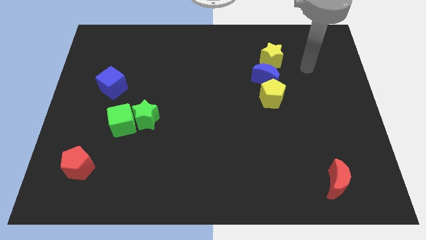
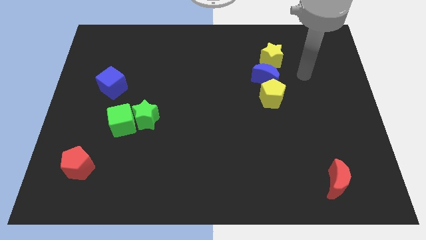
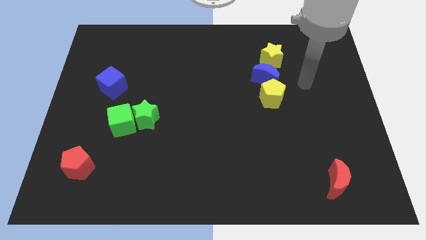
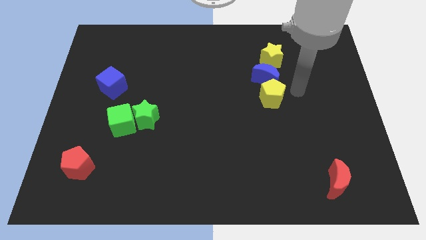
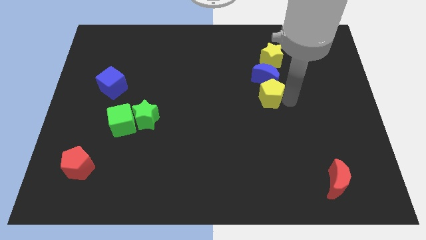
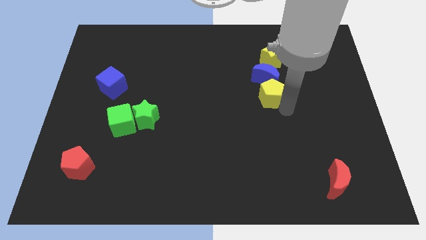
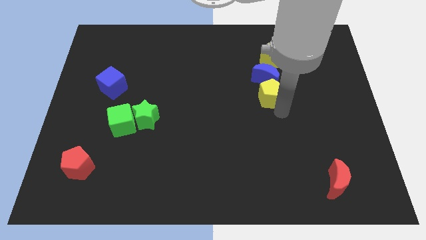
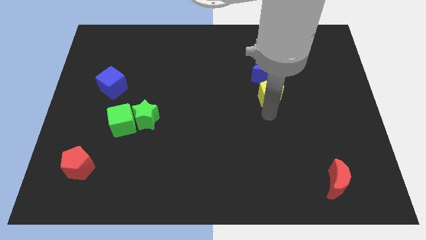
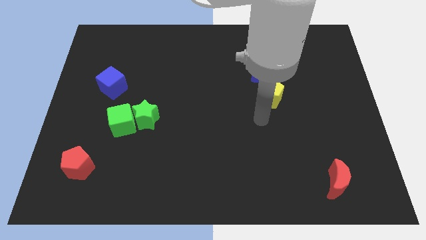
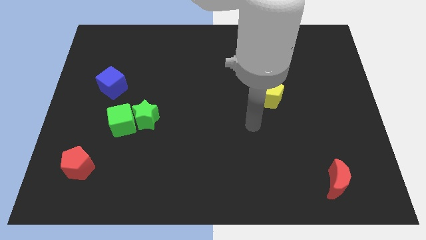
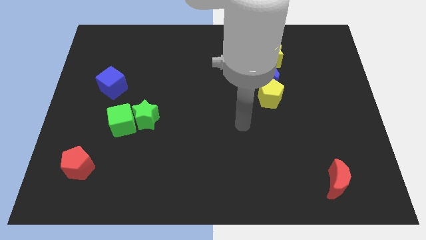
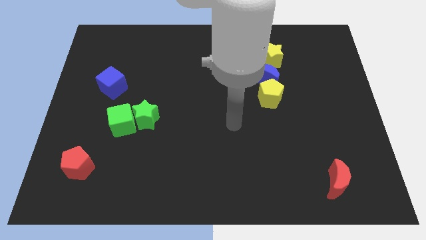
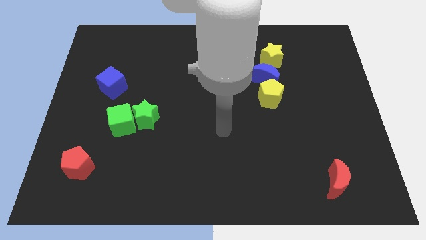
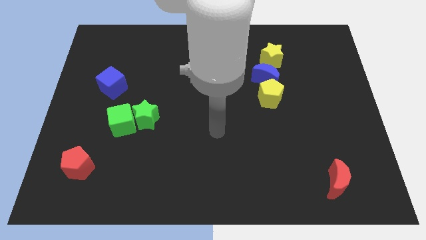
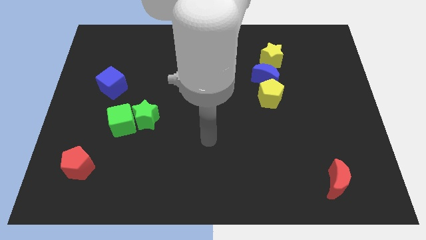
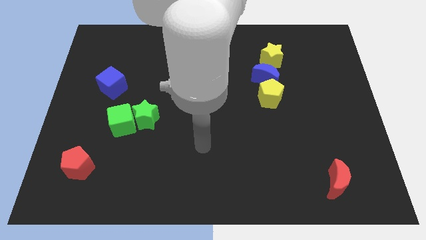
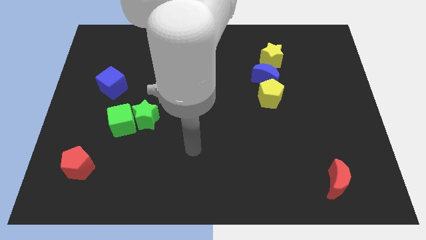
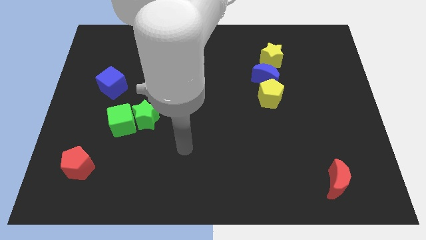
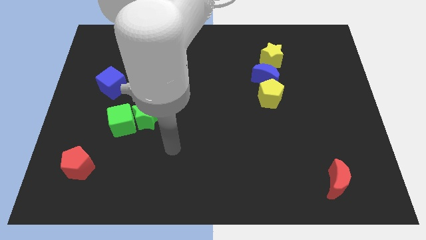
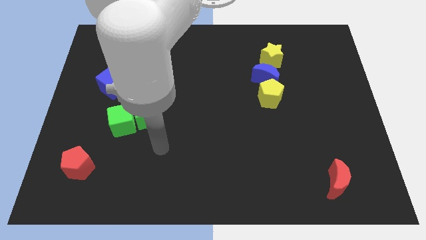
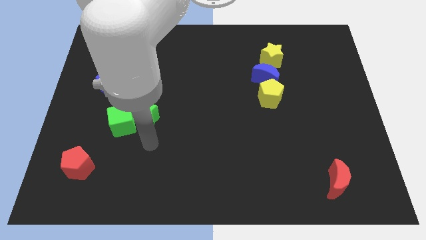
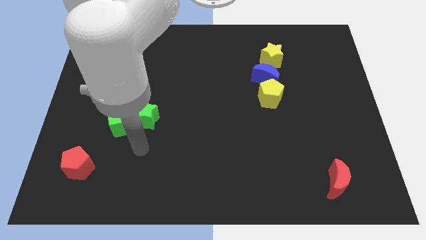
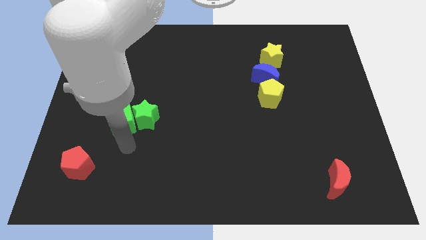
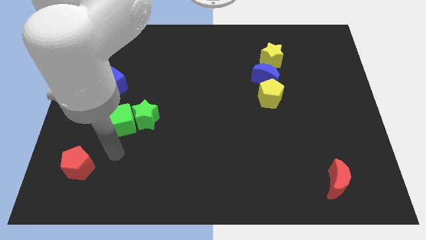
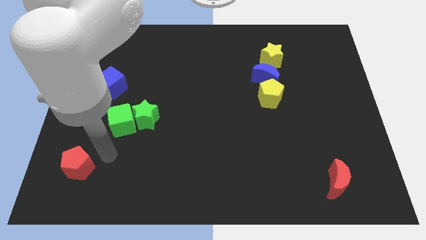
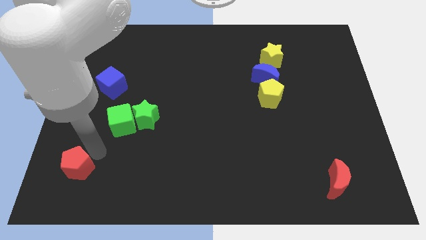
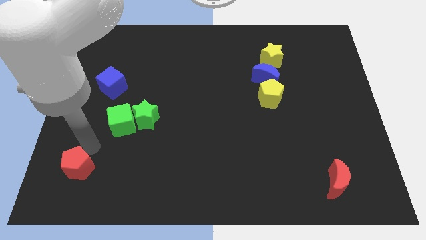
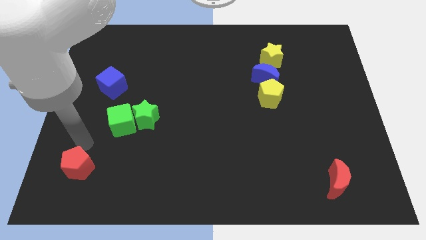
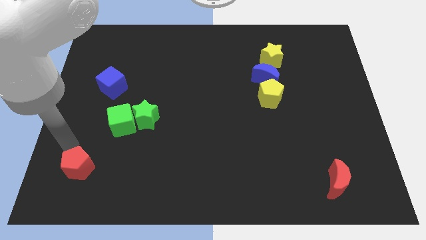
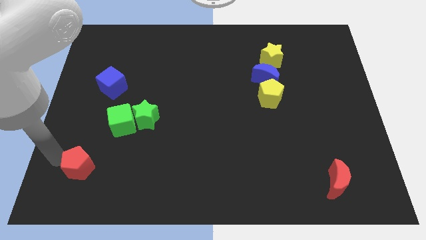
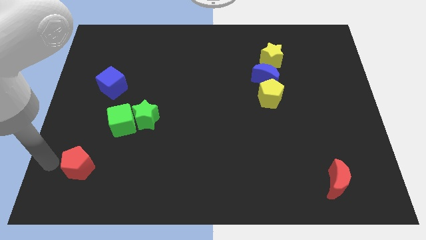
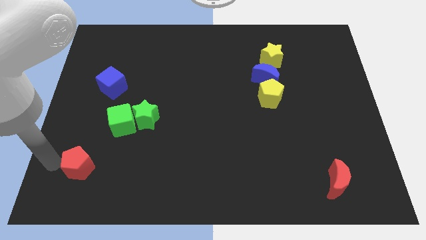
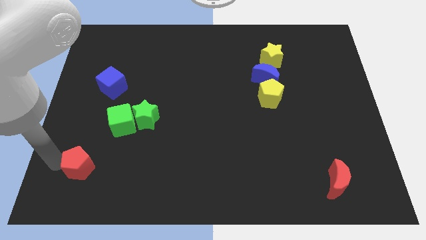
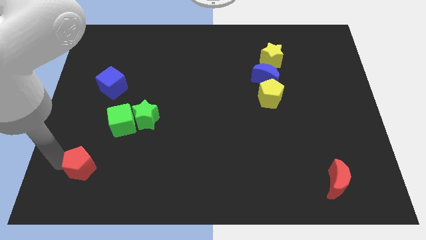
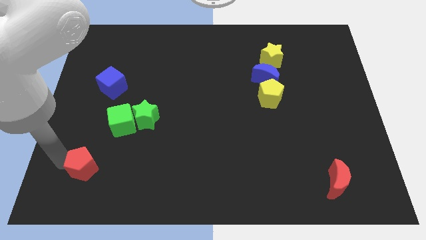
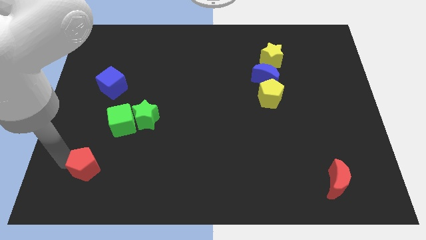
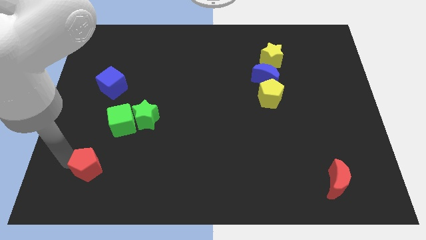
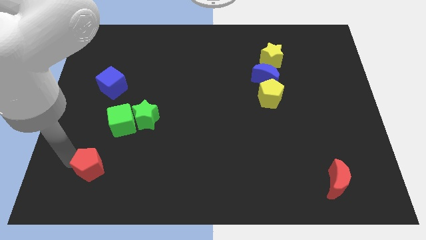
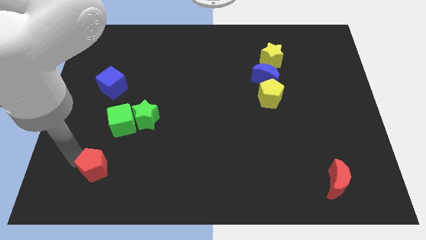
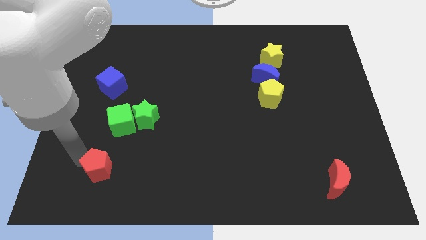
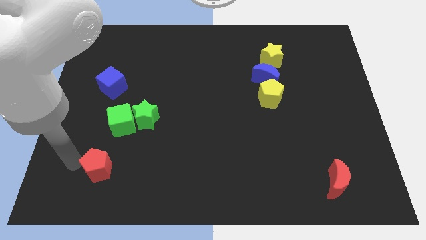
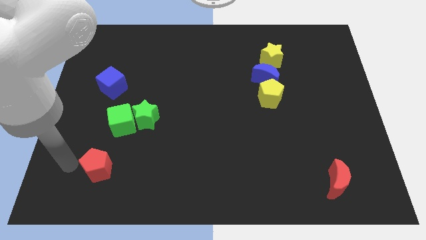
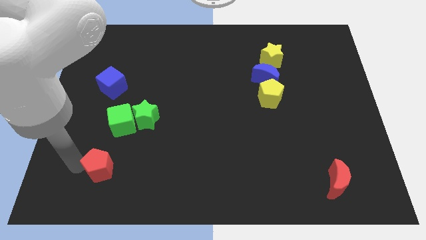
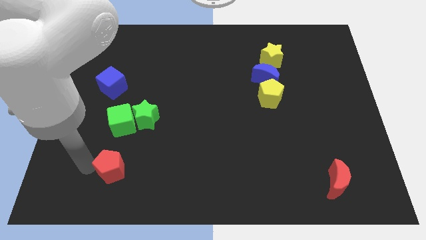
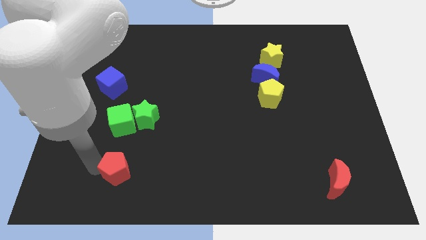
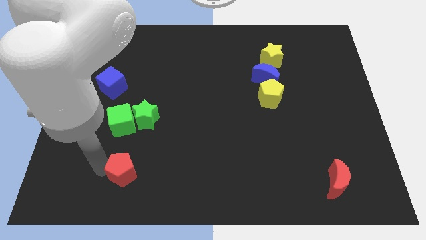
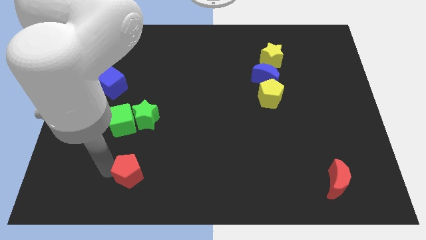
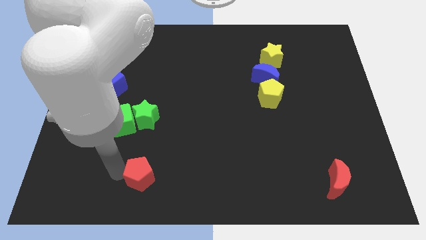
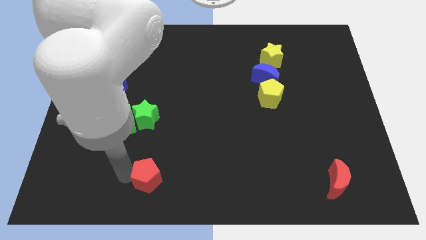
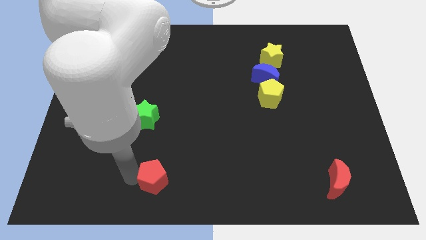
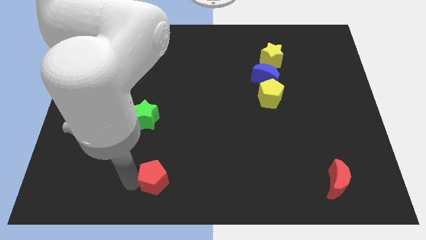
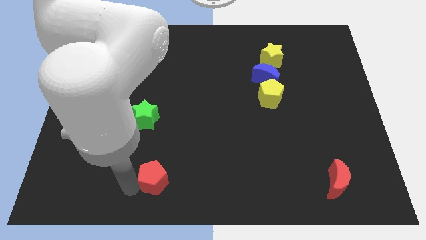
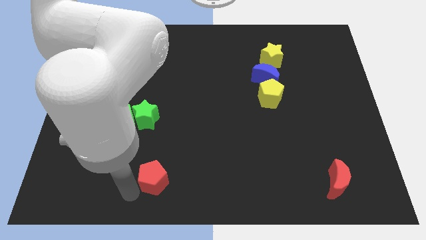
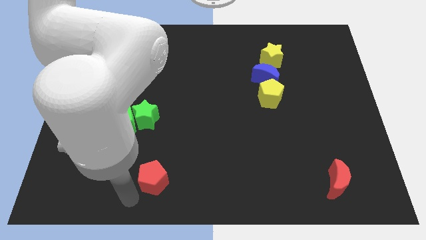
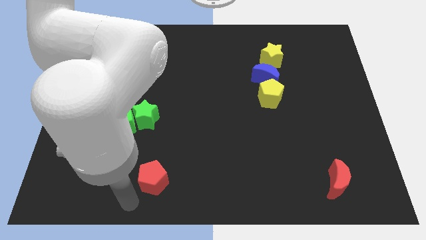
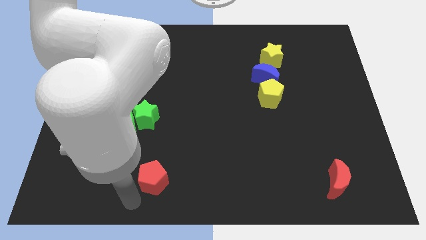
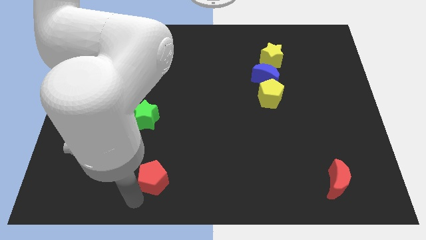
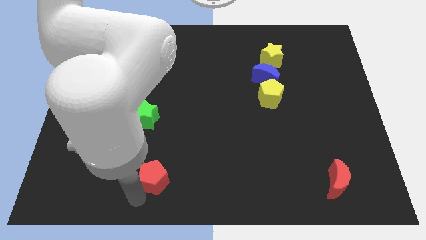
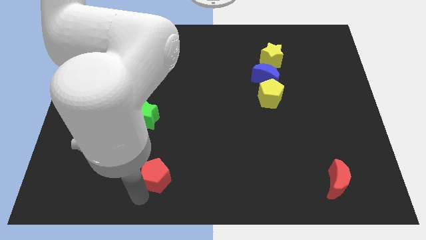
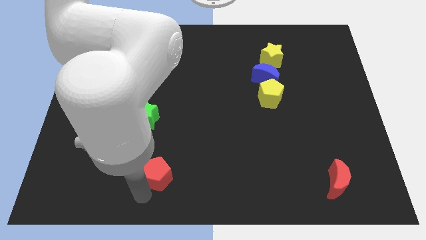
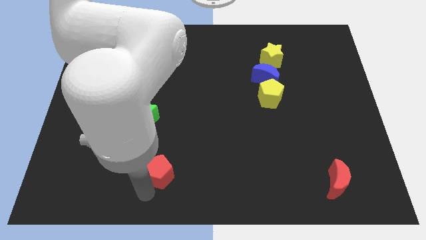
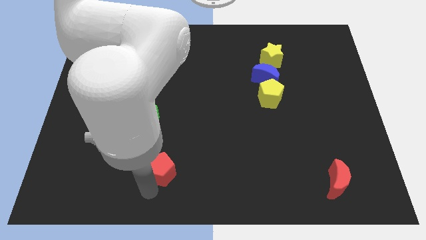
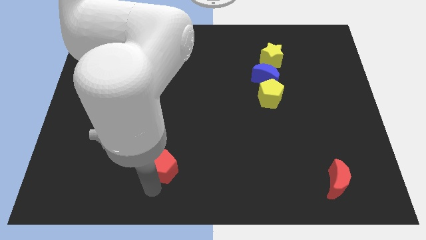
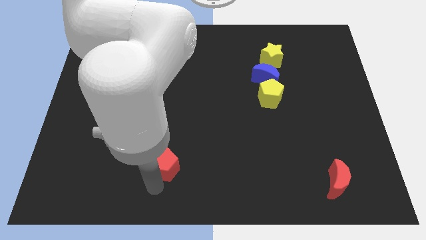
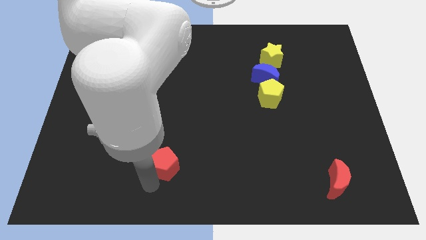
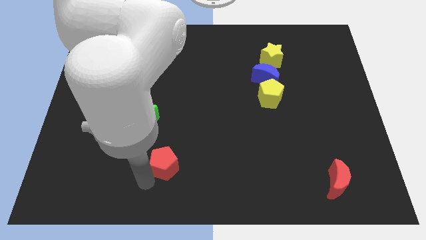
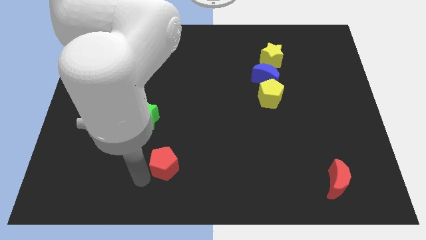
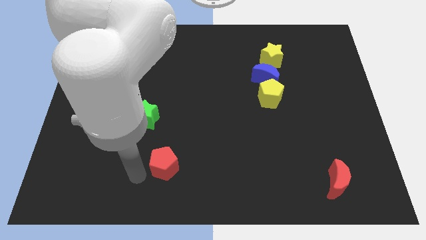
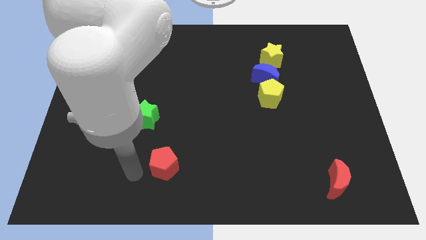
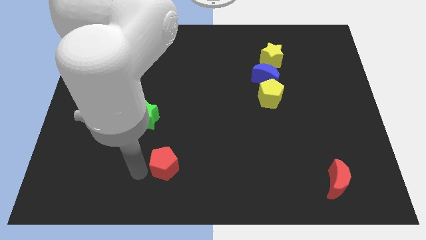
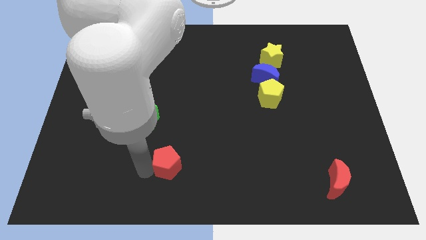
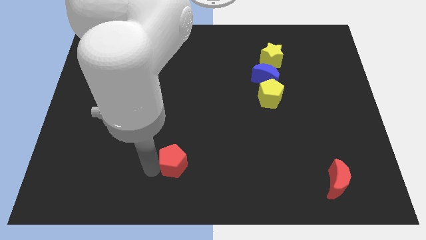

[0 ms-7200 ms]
push the red pentagon to the right

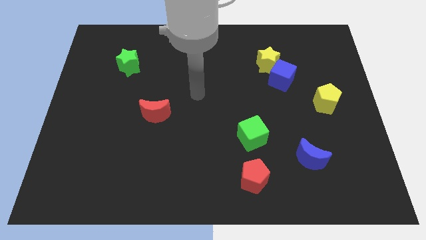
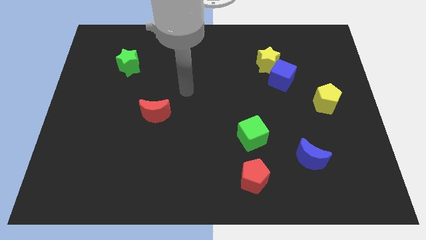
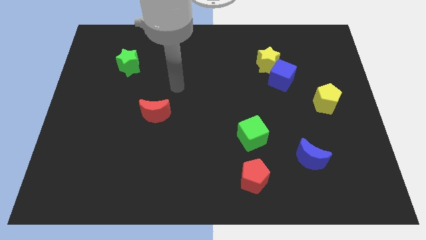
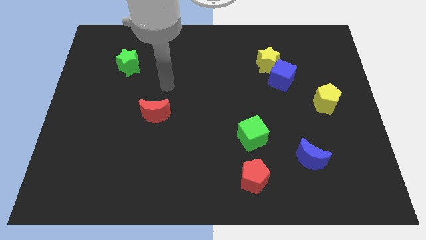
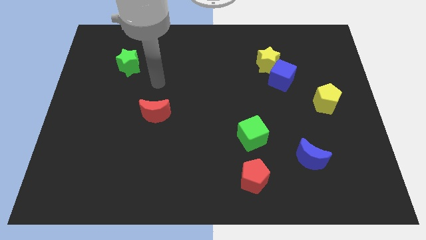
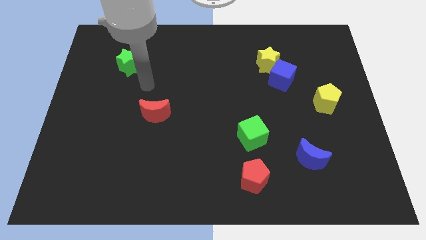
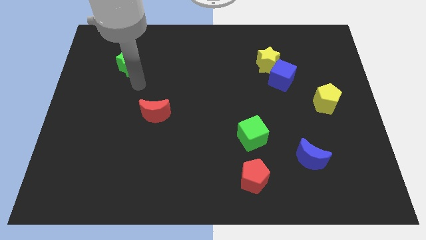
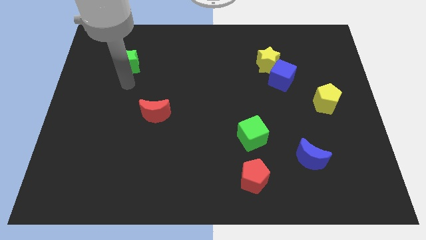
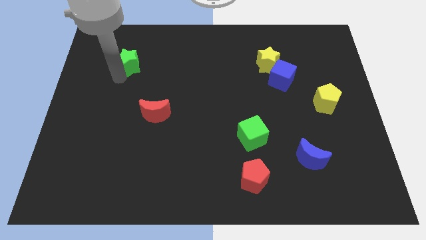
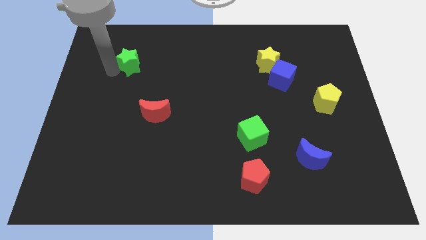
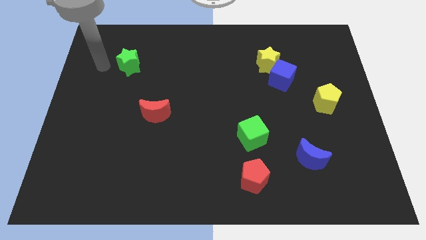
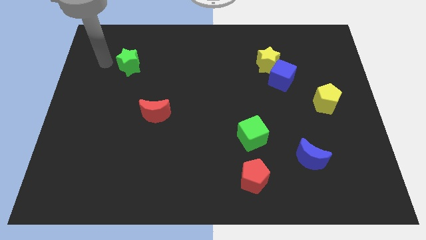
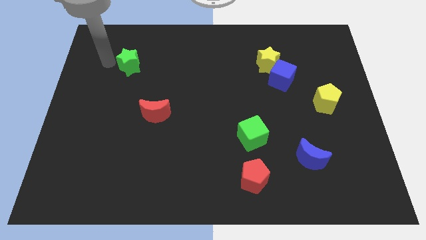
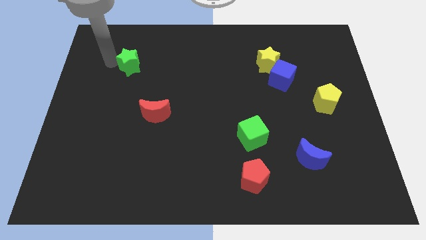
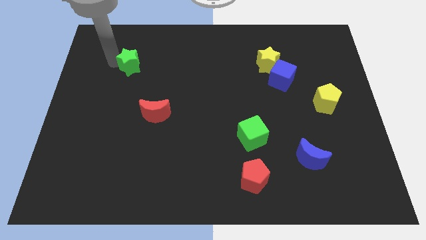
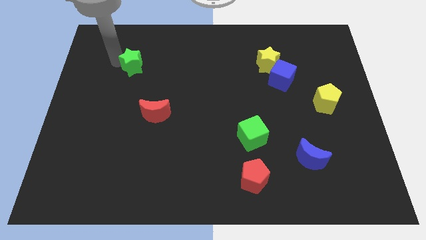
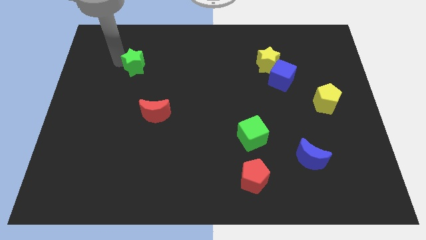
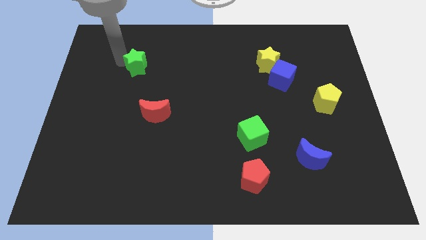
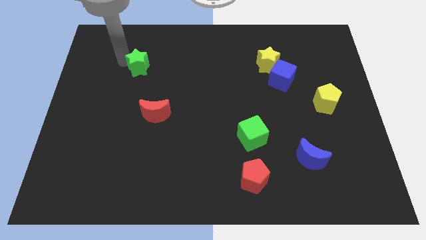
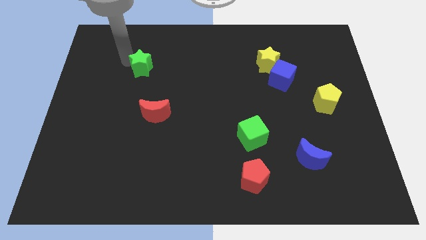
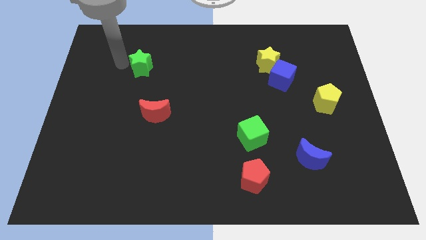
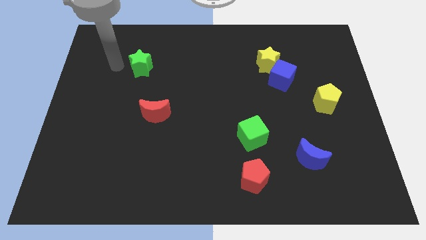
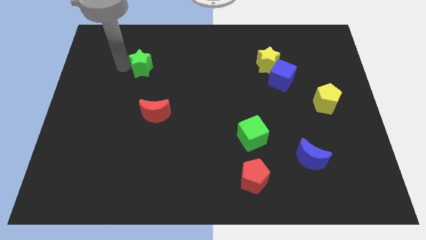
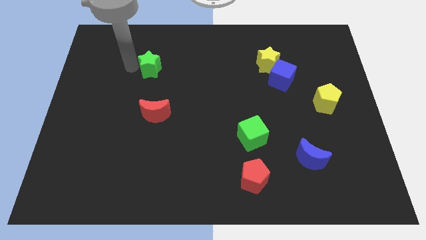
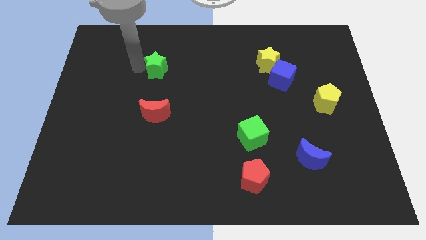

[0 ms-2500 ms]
slightly move the green star right
